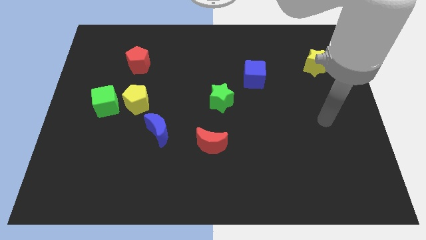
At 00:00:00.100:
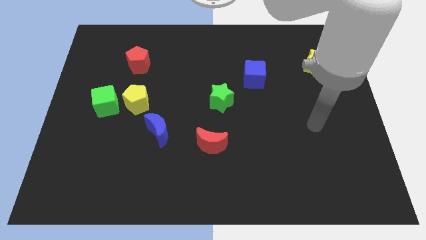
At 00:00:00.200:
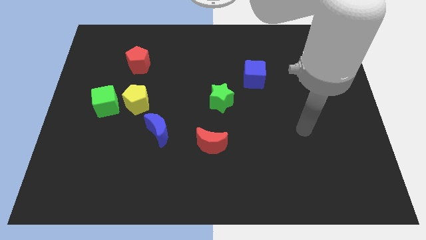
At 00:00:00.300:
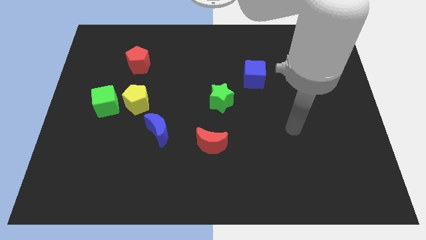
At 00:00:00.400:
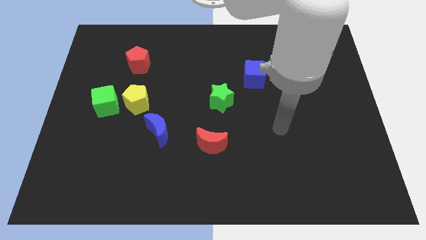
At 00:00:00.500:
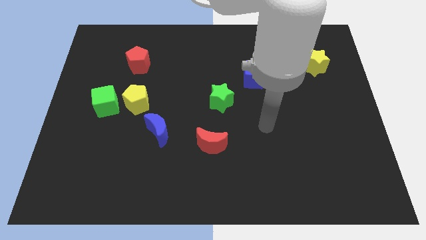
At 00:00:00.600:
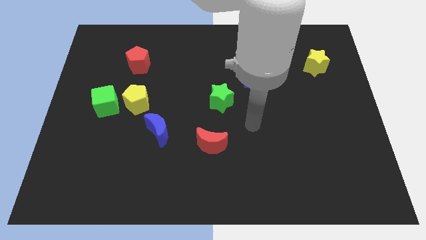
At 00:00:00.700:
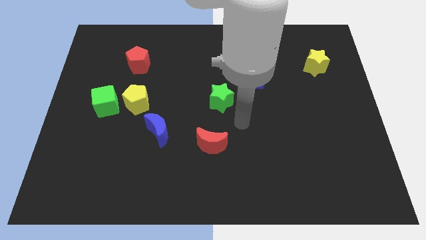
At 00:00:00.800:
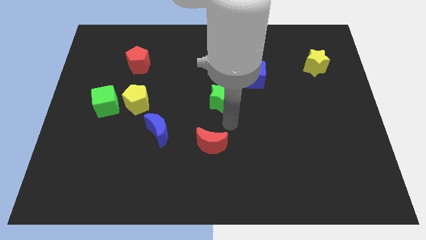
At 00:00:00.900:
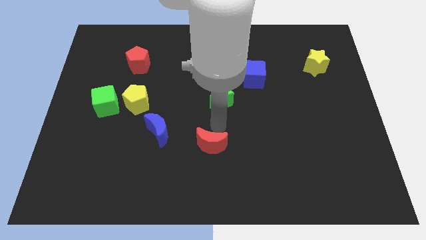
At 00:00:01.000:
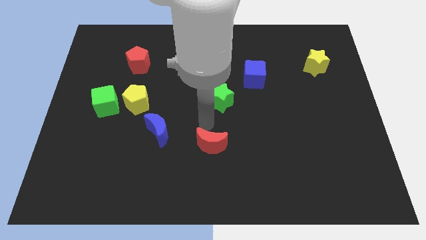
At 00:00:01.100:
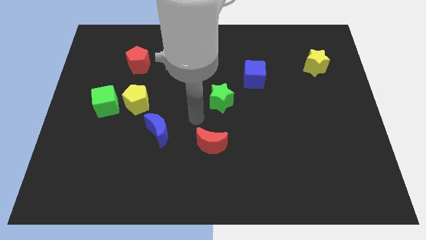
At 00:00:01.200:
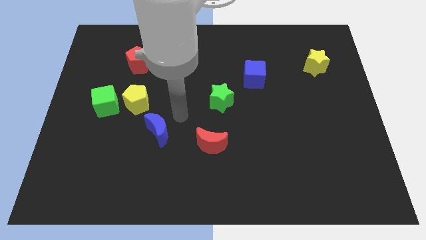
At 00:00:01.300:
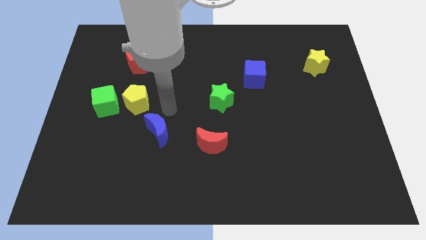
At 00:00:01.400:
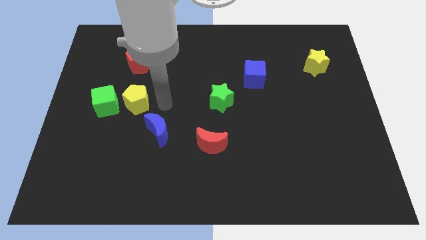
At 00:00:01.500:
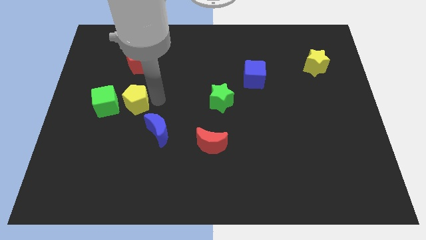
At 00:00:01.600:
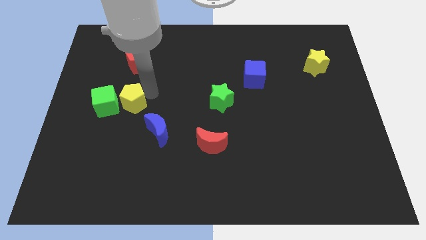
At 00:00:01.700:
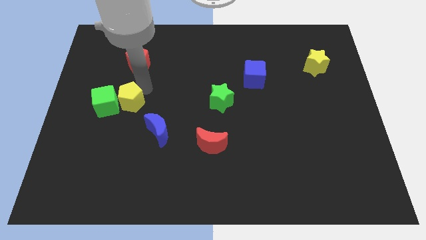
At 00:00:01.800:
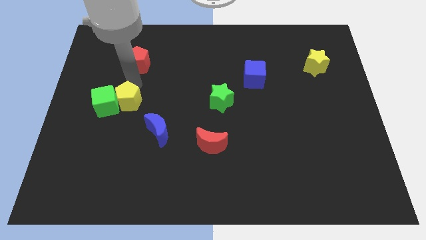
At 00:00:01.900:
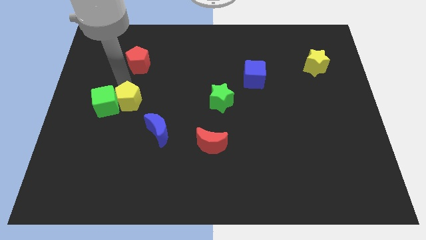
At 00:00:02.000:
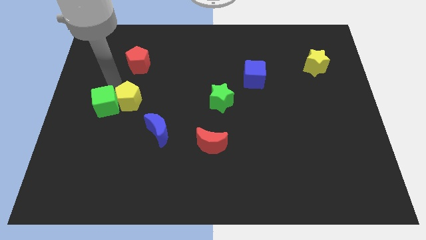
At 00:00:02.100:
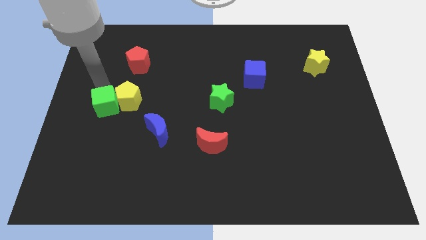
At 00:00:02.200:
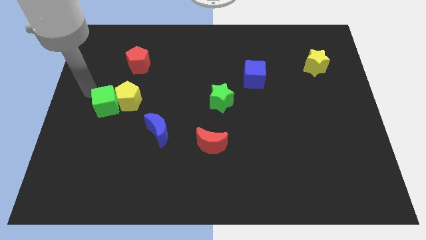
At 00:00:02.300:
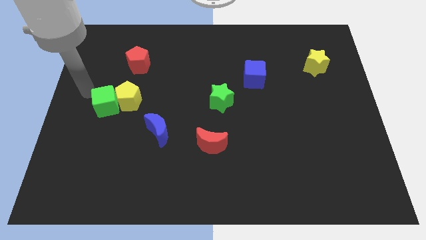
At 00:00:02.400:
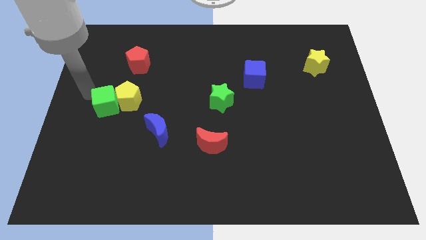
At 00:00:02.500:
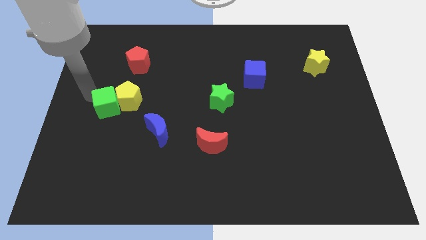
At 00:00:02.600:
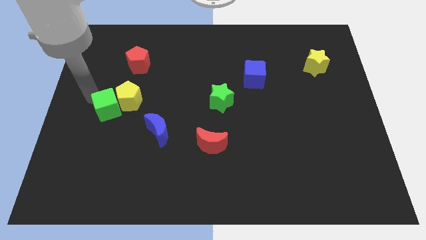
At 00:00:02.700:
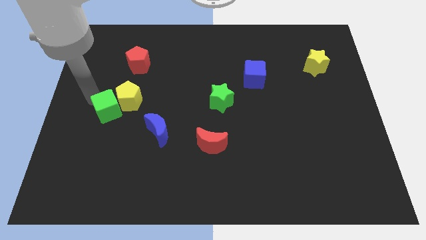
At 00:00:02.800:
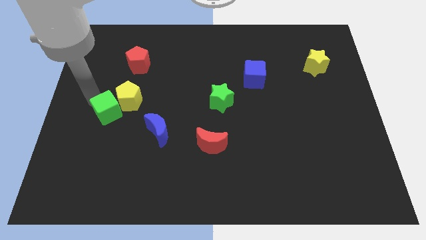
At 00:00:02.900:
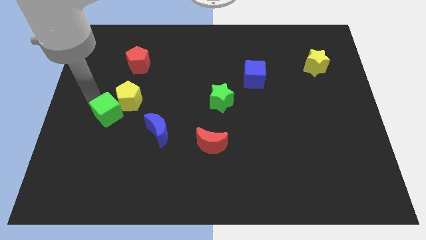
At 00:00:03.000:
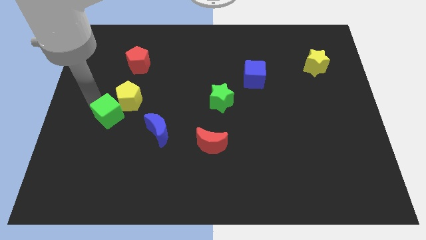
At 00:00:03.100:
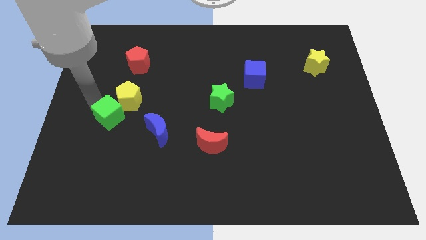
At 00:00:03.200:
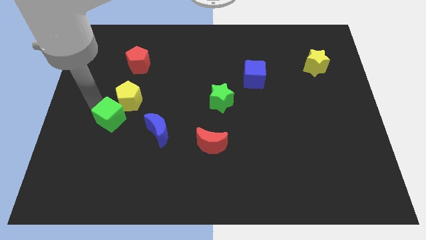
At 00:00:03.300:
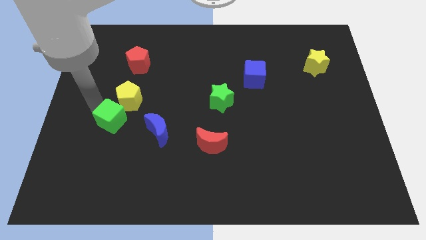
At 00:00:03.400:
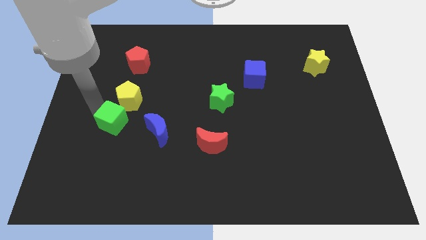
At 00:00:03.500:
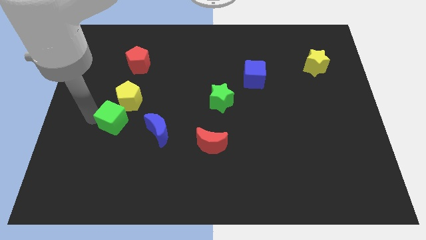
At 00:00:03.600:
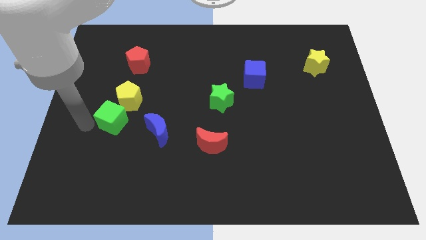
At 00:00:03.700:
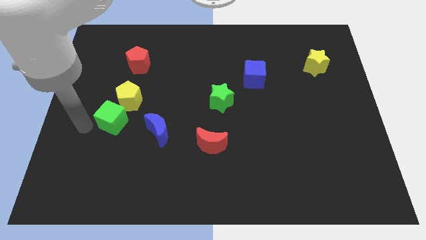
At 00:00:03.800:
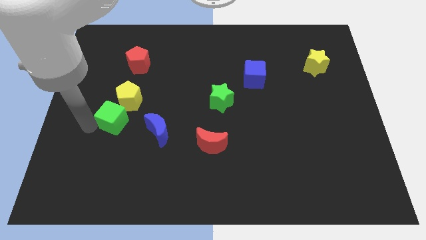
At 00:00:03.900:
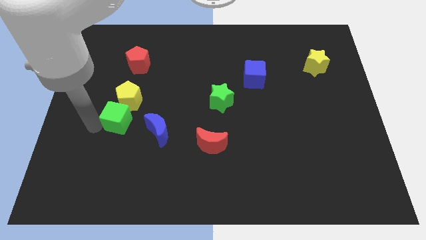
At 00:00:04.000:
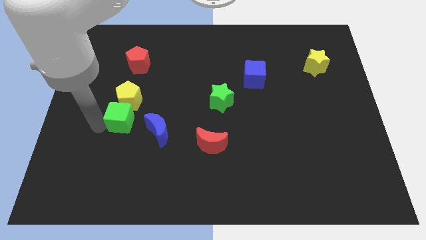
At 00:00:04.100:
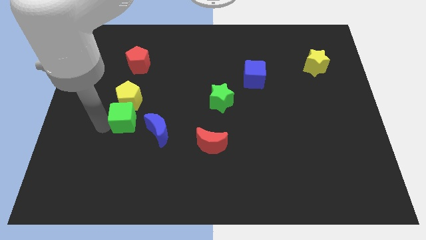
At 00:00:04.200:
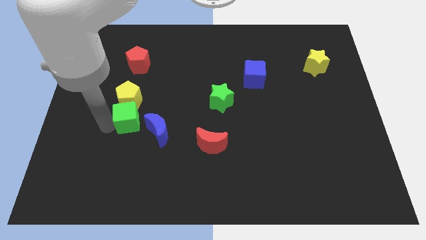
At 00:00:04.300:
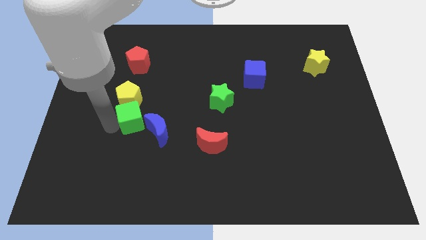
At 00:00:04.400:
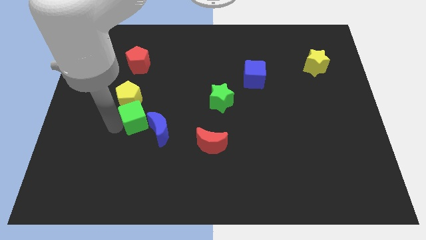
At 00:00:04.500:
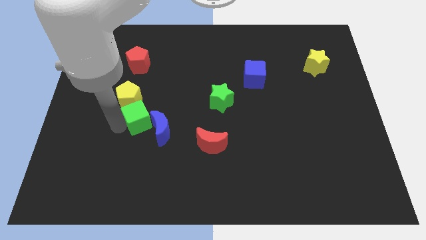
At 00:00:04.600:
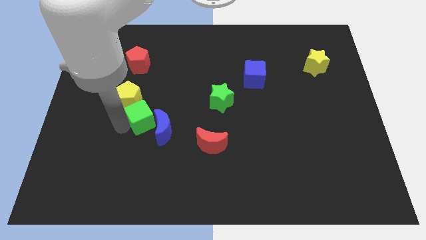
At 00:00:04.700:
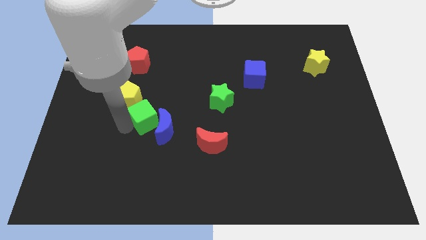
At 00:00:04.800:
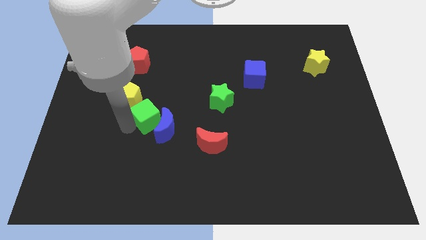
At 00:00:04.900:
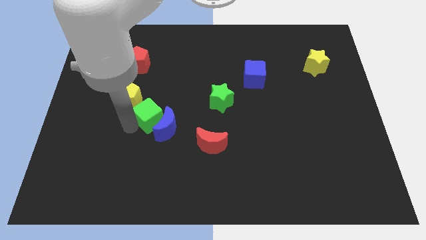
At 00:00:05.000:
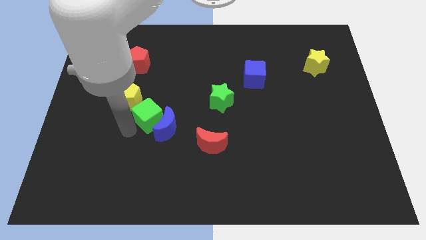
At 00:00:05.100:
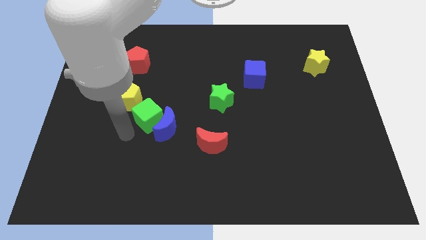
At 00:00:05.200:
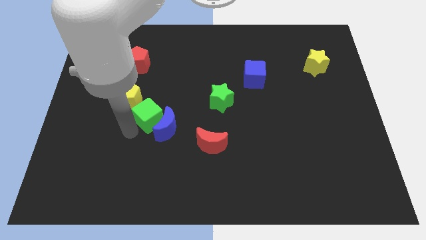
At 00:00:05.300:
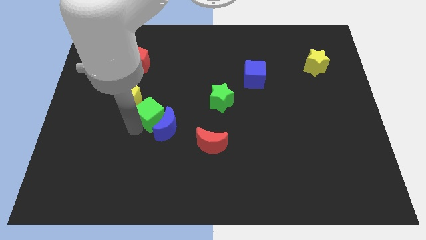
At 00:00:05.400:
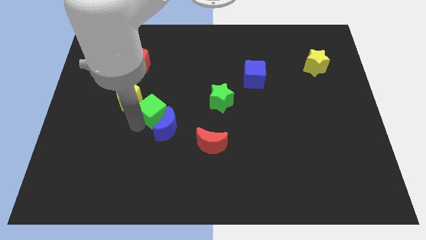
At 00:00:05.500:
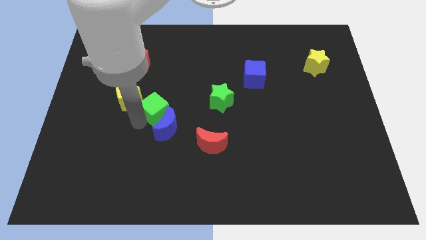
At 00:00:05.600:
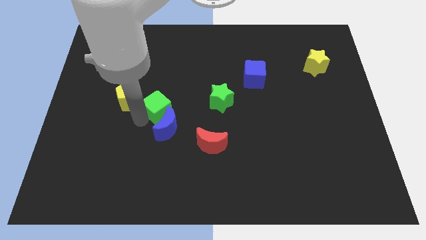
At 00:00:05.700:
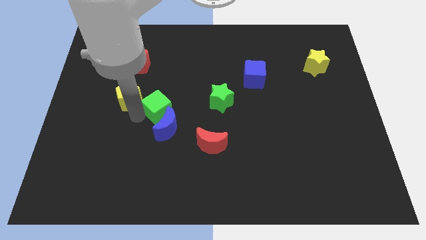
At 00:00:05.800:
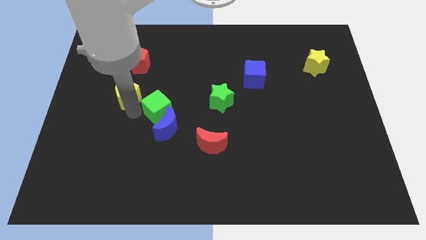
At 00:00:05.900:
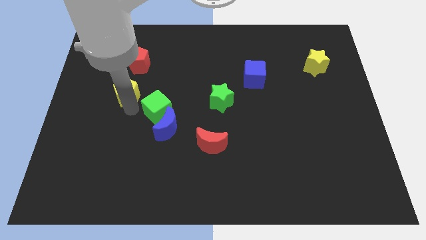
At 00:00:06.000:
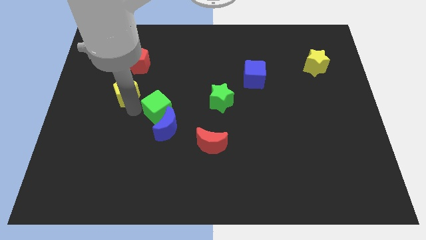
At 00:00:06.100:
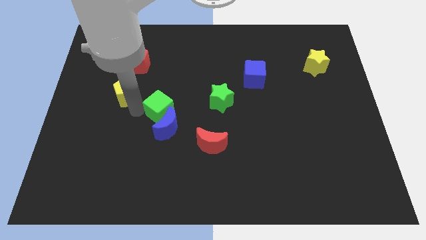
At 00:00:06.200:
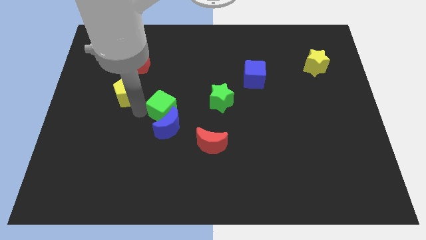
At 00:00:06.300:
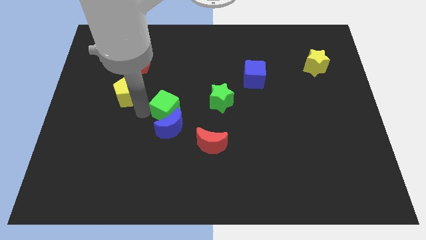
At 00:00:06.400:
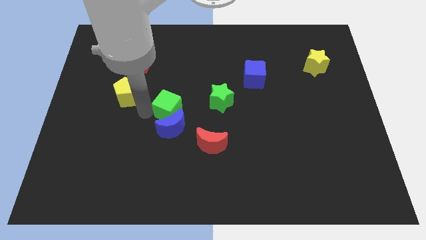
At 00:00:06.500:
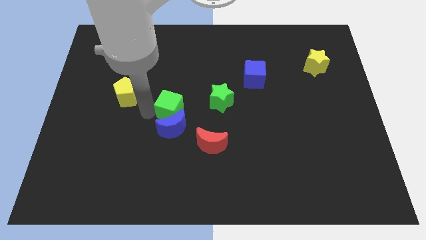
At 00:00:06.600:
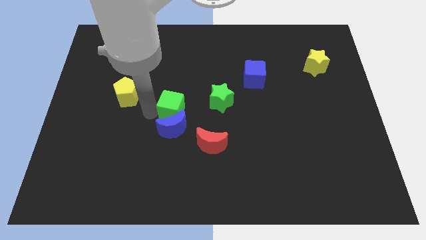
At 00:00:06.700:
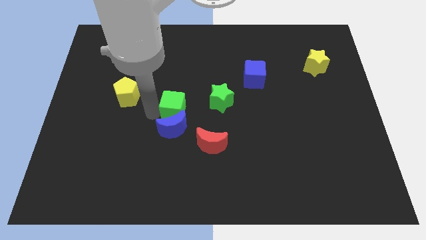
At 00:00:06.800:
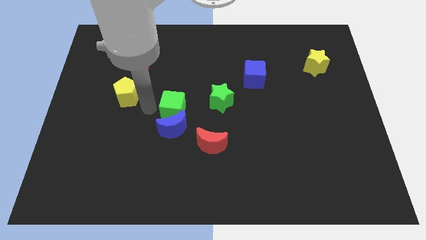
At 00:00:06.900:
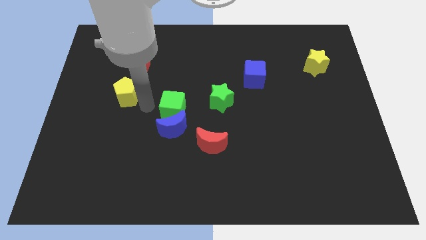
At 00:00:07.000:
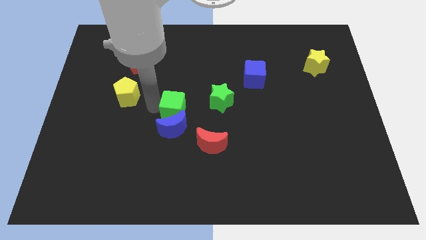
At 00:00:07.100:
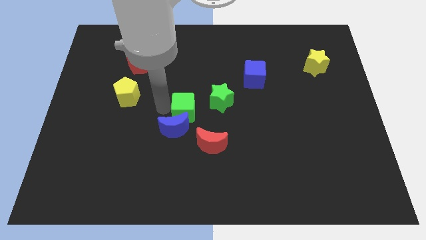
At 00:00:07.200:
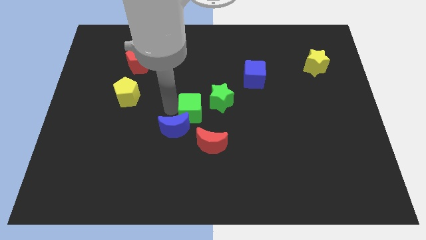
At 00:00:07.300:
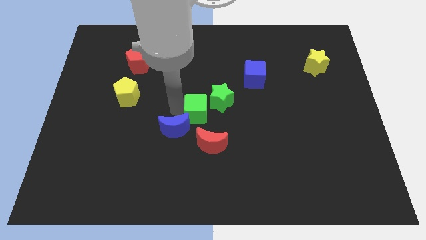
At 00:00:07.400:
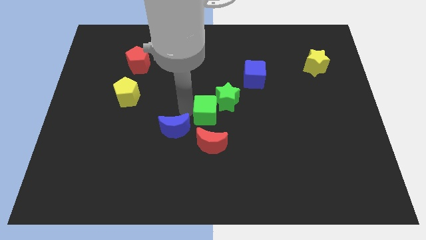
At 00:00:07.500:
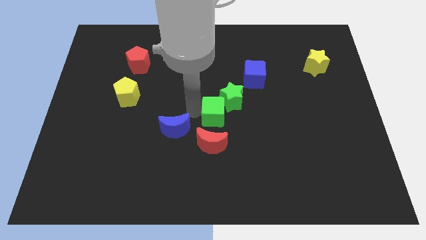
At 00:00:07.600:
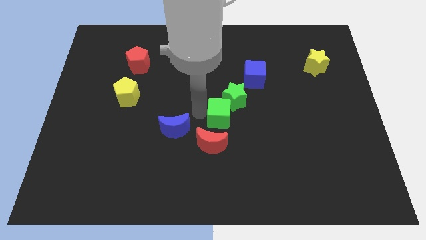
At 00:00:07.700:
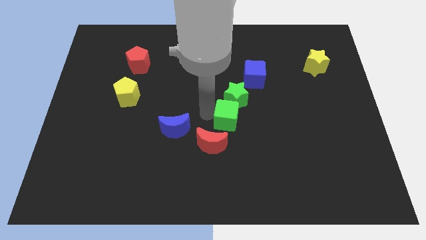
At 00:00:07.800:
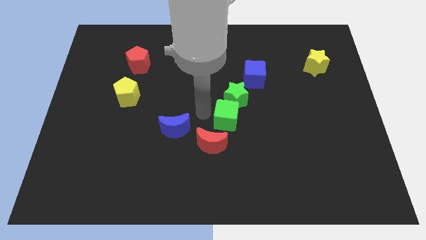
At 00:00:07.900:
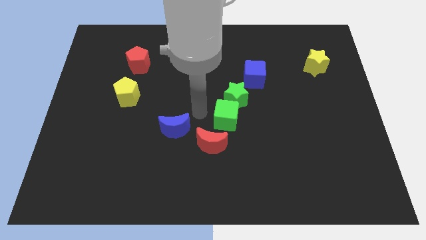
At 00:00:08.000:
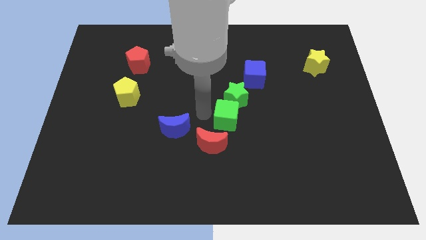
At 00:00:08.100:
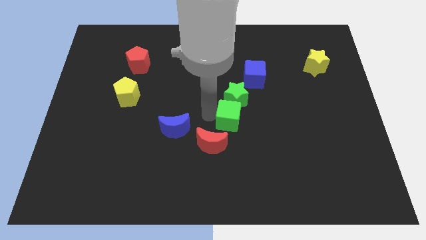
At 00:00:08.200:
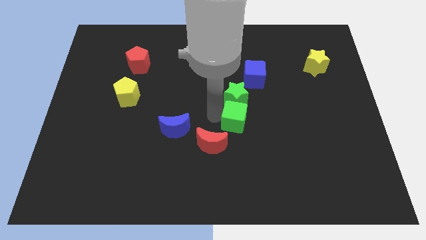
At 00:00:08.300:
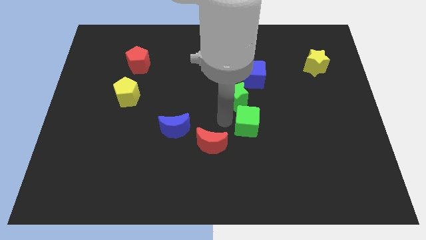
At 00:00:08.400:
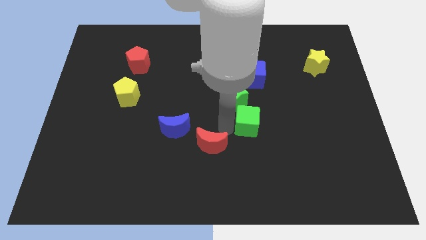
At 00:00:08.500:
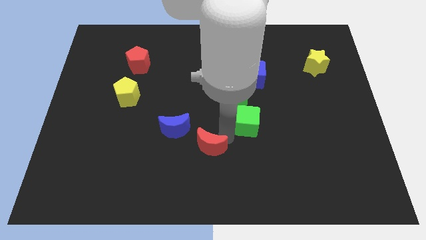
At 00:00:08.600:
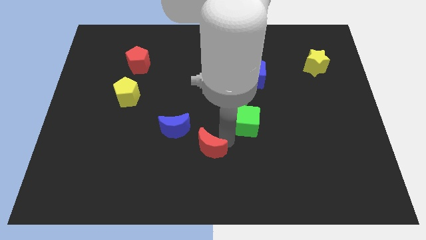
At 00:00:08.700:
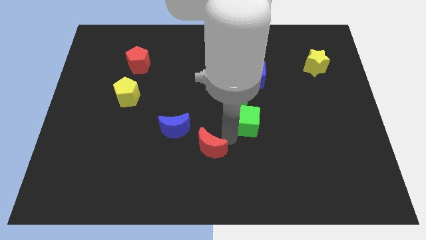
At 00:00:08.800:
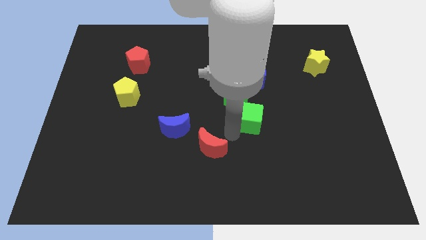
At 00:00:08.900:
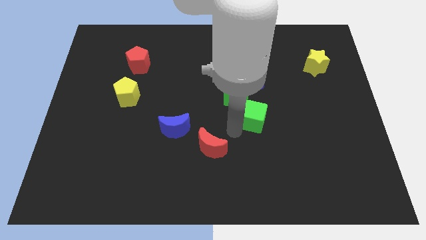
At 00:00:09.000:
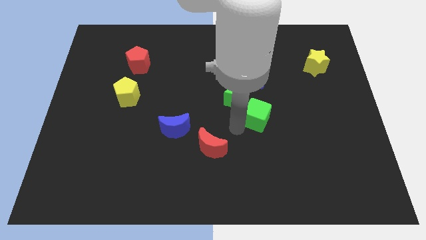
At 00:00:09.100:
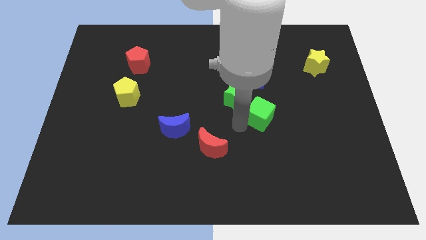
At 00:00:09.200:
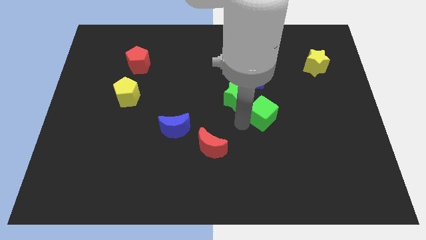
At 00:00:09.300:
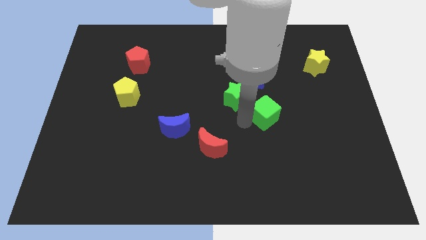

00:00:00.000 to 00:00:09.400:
slide the green cube to the right of the green star
